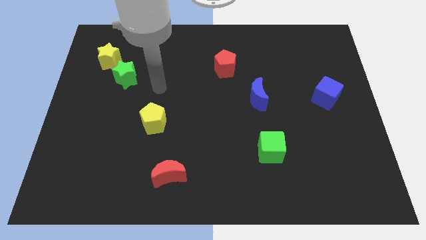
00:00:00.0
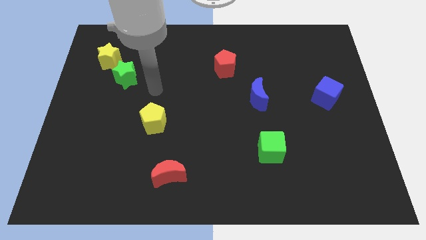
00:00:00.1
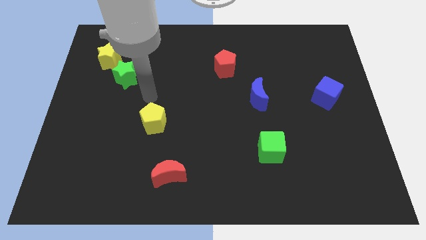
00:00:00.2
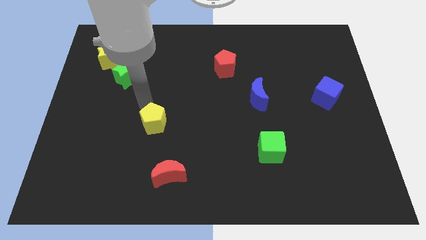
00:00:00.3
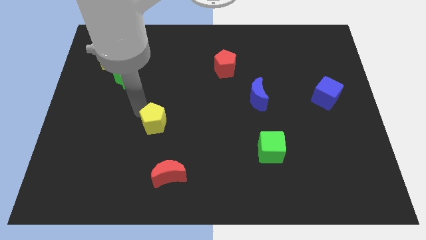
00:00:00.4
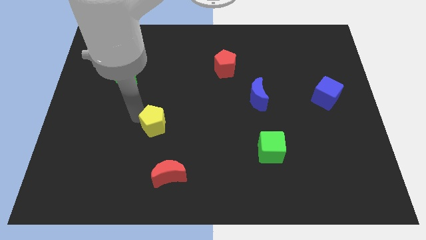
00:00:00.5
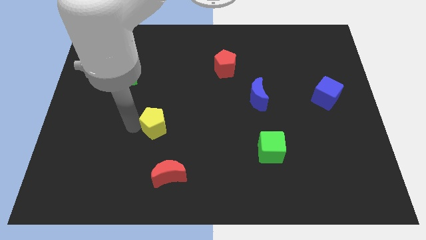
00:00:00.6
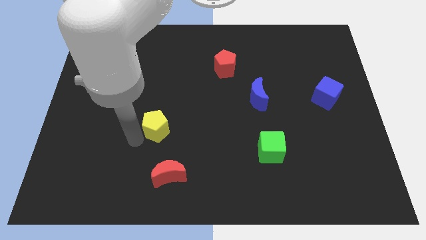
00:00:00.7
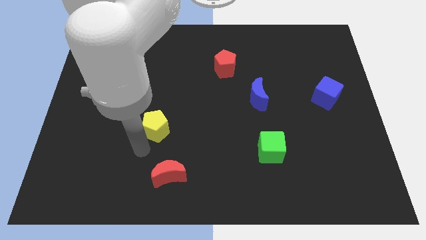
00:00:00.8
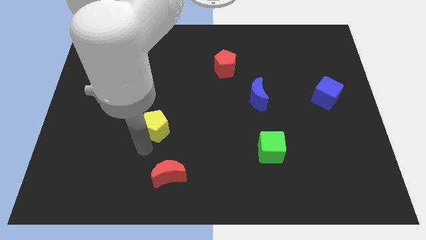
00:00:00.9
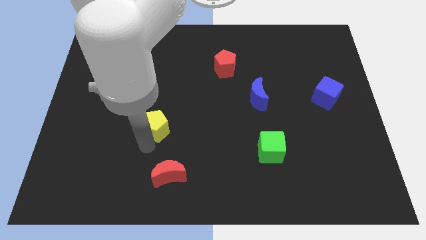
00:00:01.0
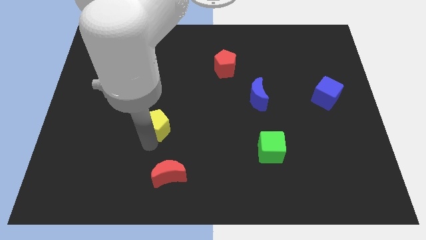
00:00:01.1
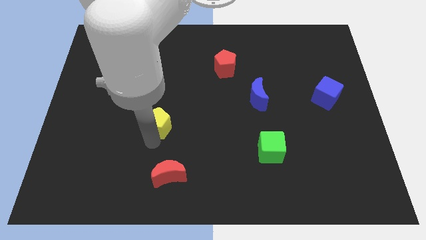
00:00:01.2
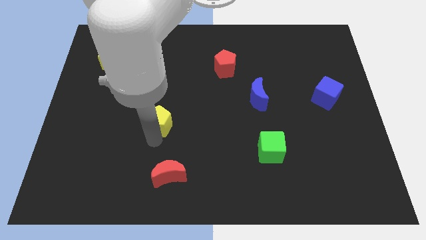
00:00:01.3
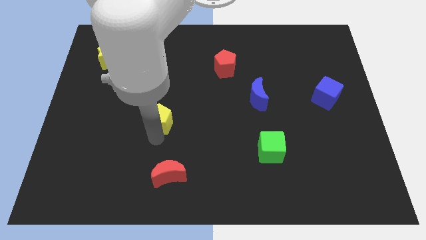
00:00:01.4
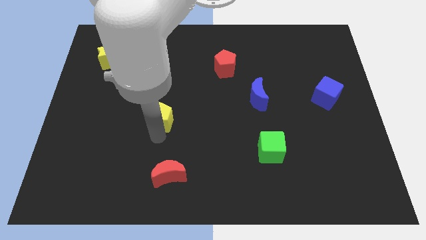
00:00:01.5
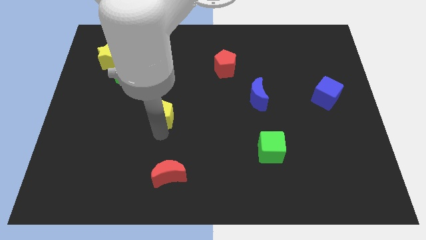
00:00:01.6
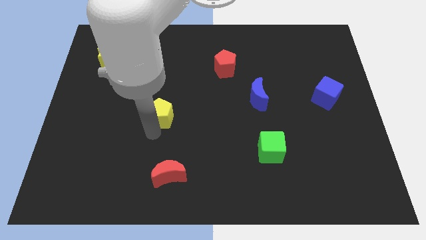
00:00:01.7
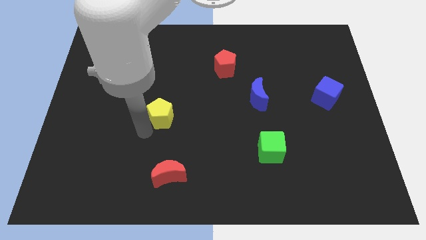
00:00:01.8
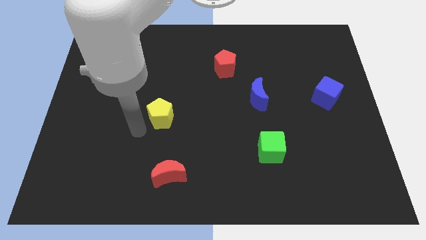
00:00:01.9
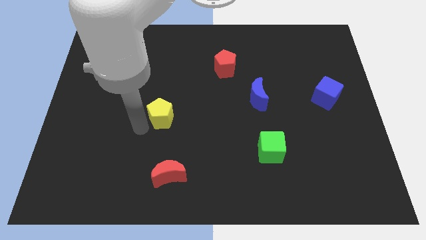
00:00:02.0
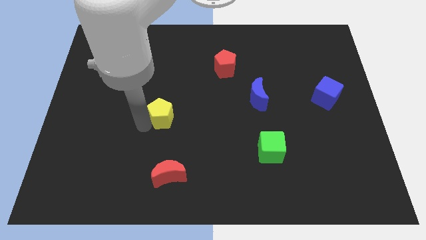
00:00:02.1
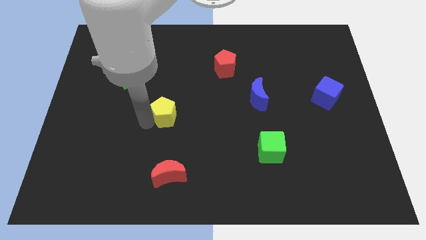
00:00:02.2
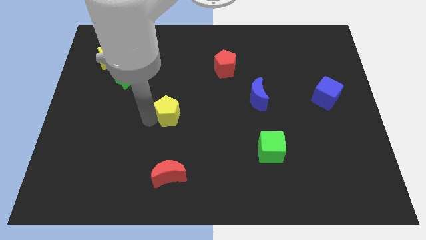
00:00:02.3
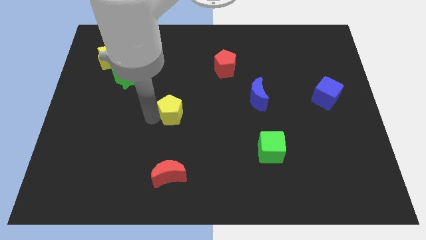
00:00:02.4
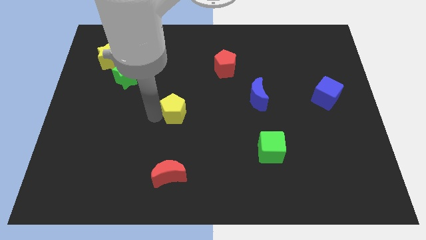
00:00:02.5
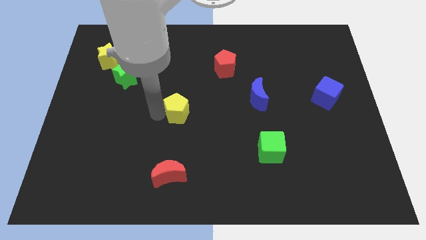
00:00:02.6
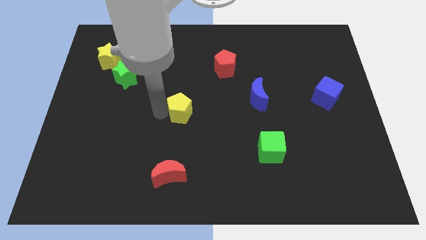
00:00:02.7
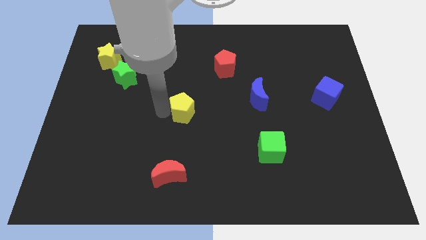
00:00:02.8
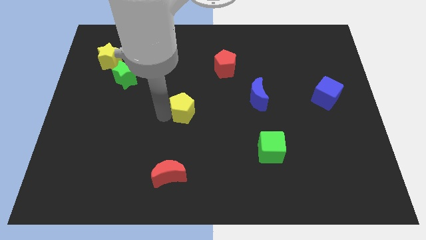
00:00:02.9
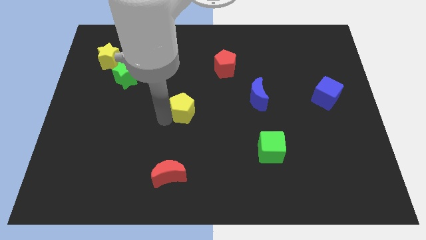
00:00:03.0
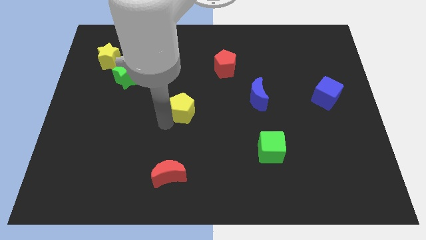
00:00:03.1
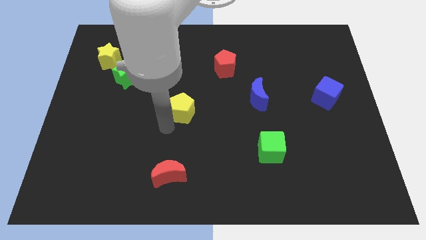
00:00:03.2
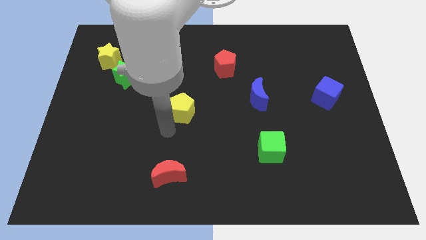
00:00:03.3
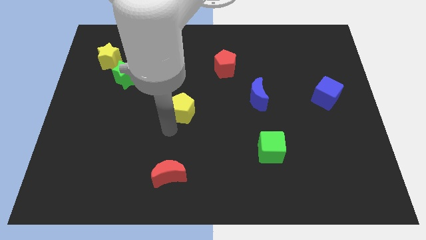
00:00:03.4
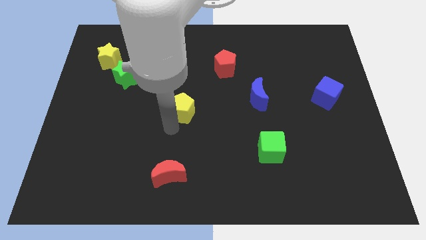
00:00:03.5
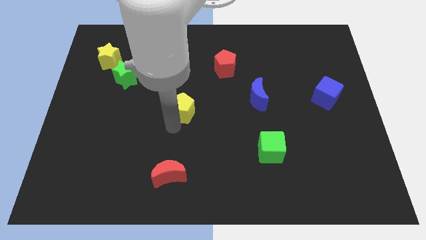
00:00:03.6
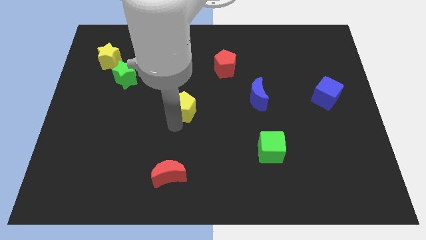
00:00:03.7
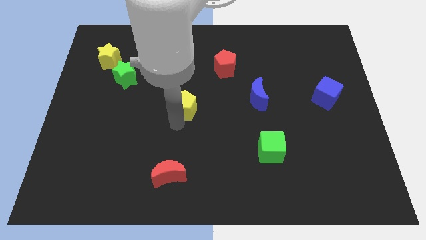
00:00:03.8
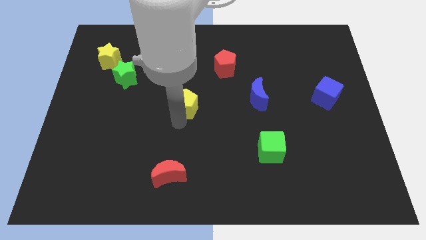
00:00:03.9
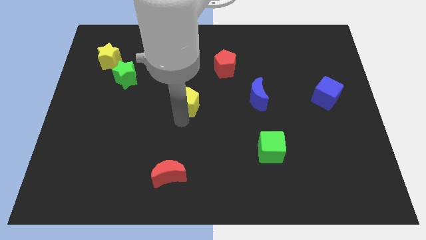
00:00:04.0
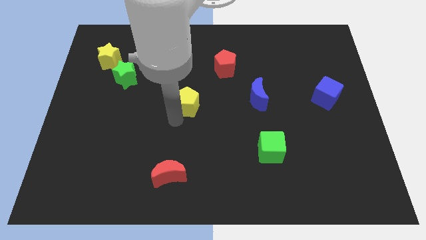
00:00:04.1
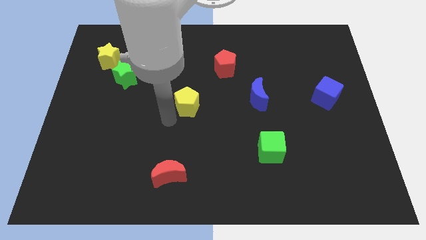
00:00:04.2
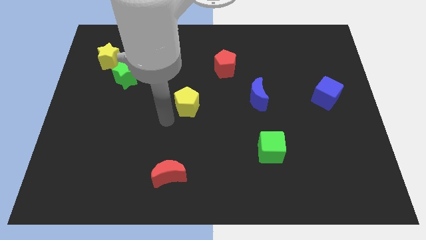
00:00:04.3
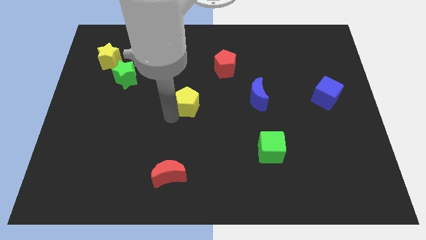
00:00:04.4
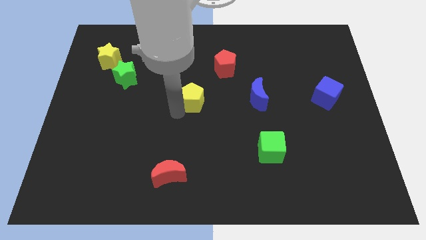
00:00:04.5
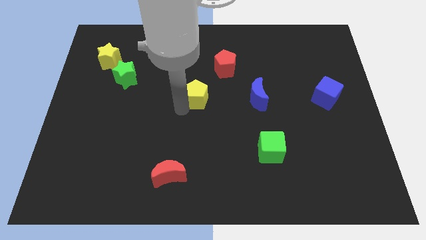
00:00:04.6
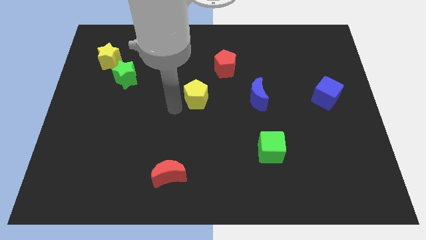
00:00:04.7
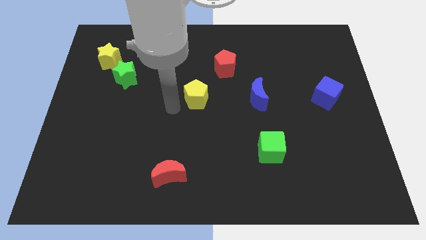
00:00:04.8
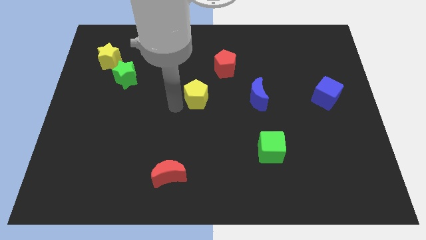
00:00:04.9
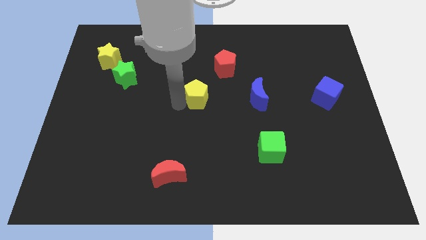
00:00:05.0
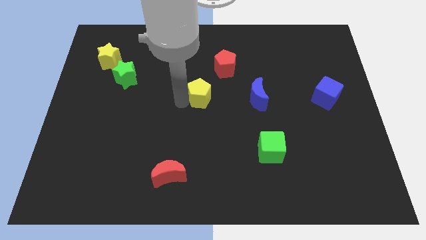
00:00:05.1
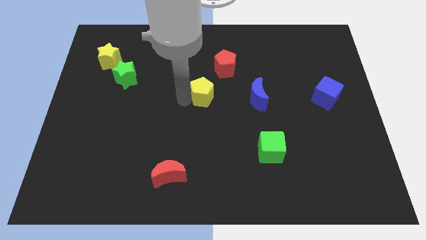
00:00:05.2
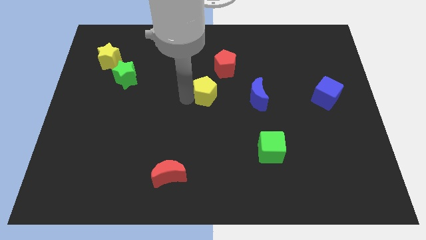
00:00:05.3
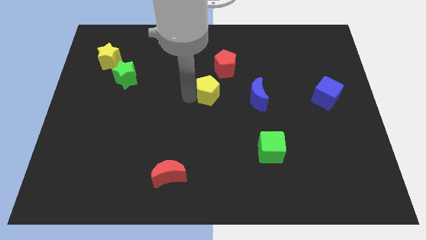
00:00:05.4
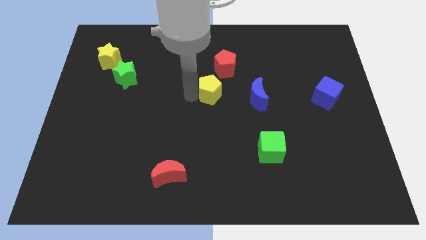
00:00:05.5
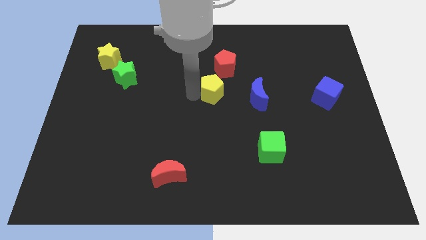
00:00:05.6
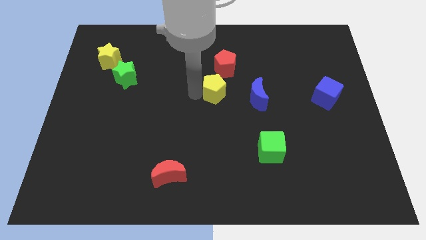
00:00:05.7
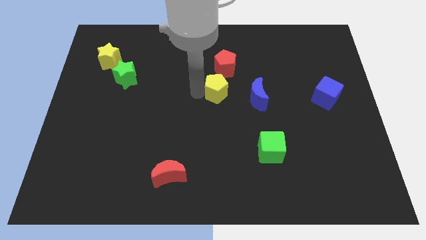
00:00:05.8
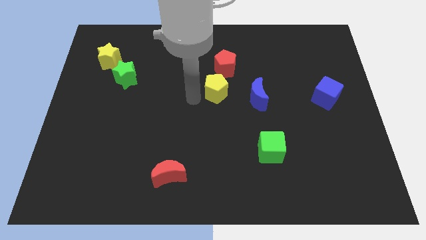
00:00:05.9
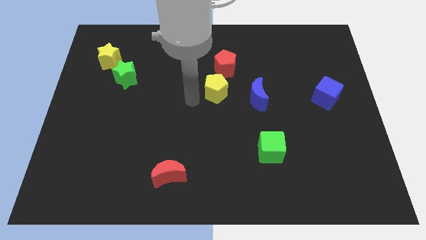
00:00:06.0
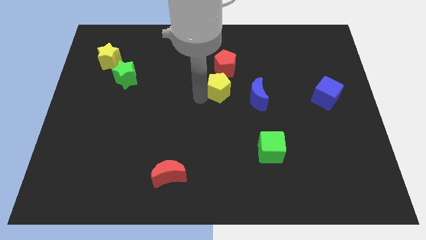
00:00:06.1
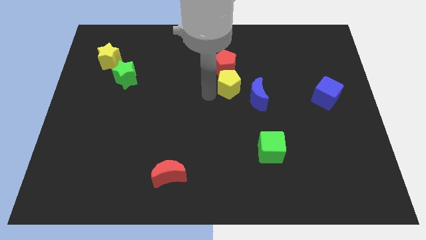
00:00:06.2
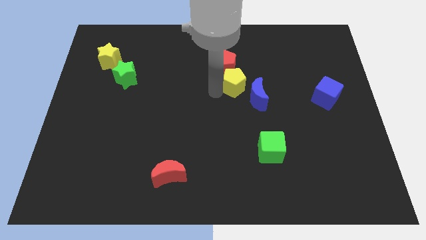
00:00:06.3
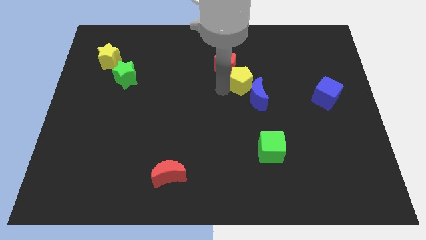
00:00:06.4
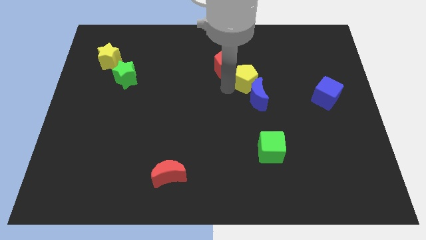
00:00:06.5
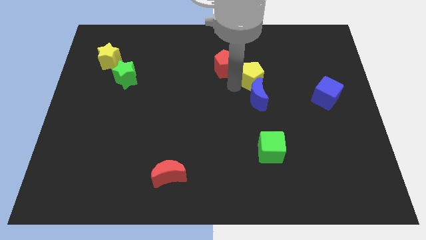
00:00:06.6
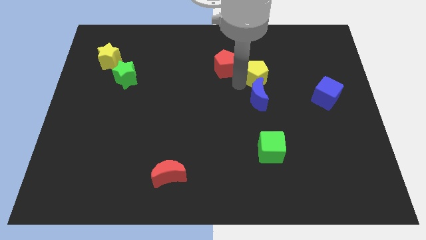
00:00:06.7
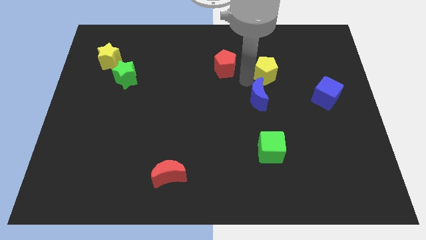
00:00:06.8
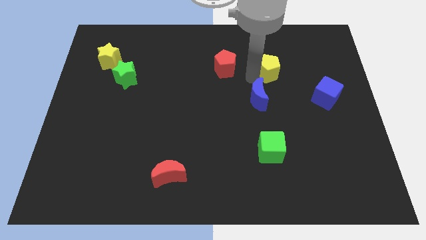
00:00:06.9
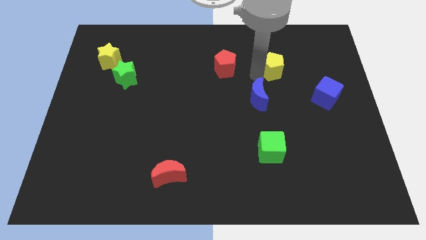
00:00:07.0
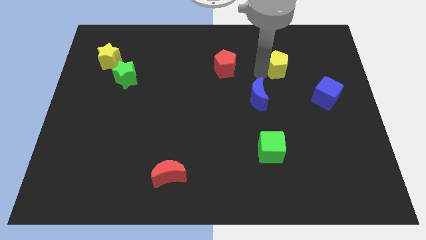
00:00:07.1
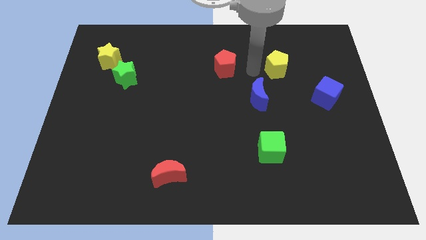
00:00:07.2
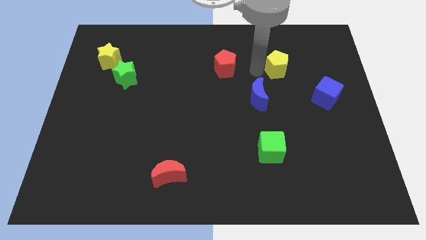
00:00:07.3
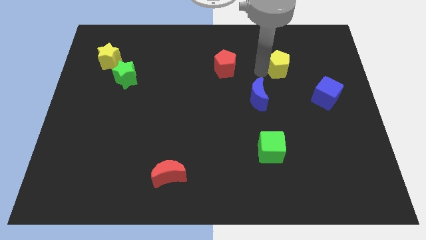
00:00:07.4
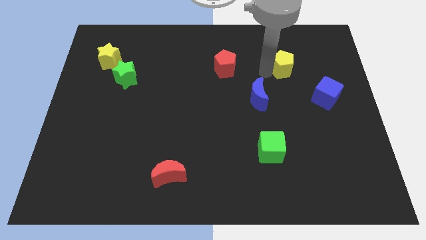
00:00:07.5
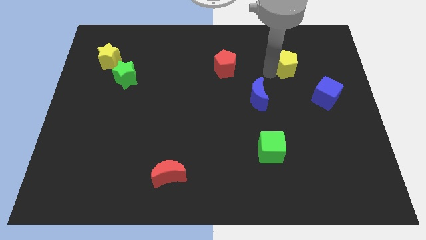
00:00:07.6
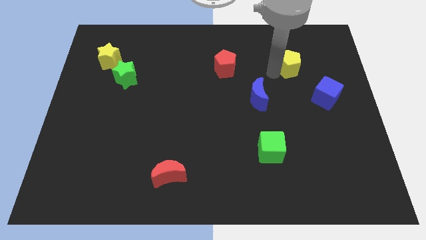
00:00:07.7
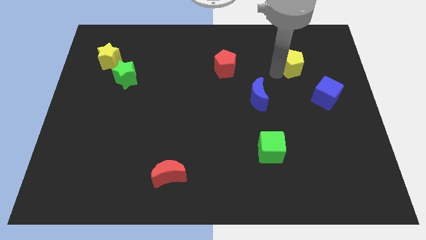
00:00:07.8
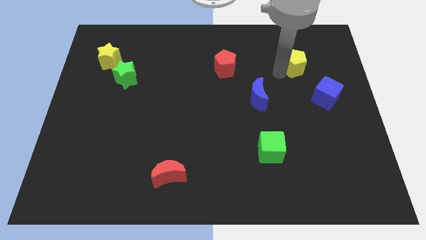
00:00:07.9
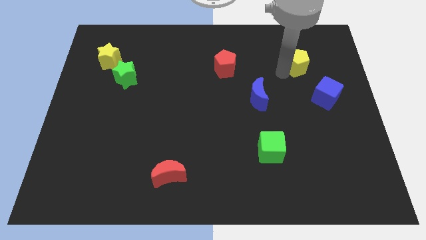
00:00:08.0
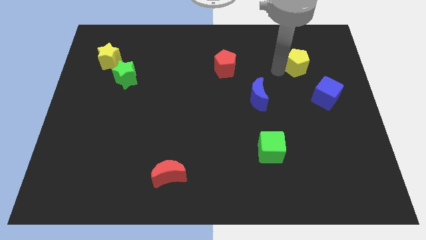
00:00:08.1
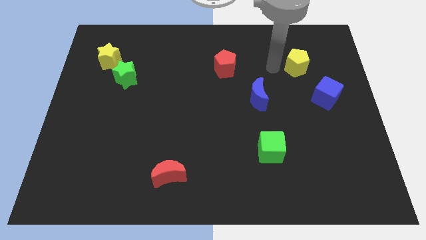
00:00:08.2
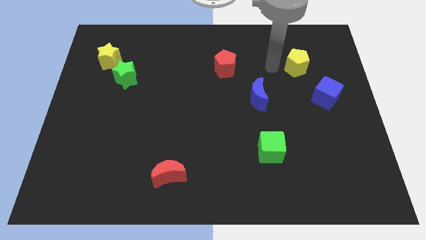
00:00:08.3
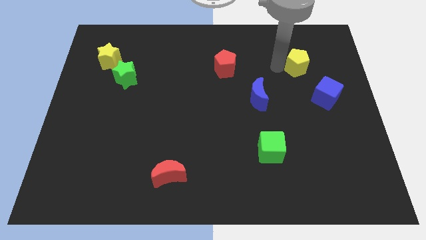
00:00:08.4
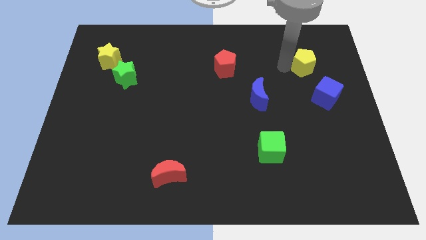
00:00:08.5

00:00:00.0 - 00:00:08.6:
move the yellow pentagon above the blue cube
